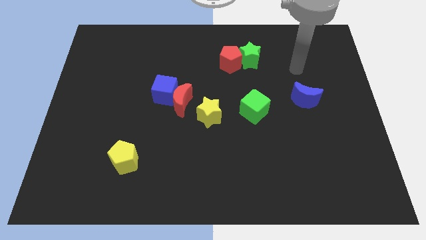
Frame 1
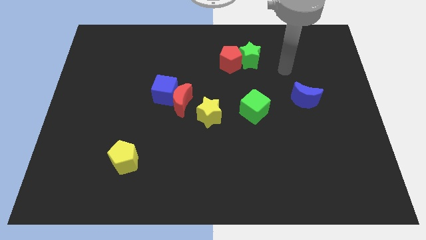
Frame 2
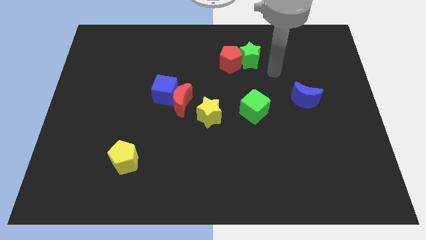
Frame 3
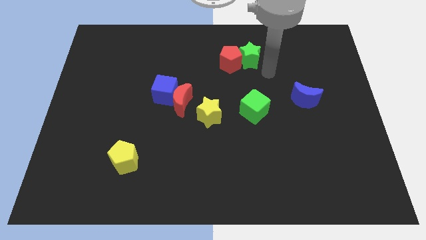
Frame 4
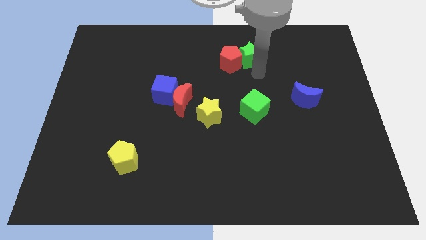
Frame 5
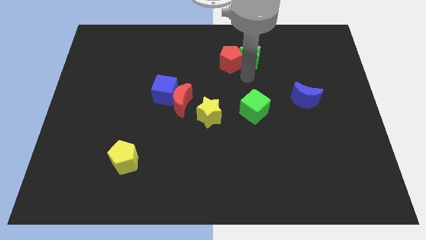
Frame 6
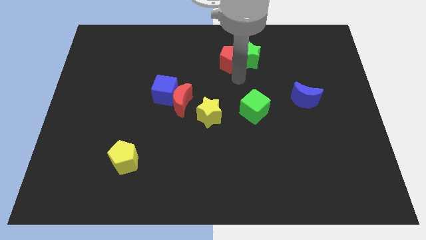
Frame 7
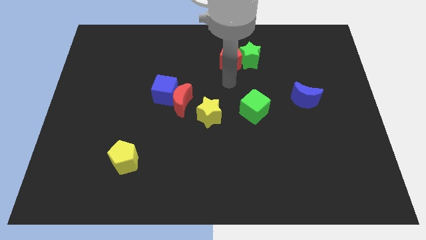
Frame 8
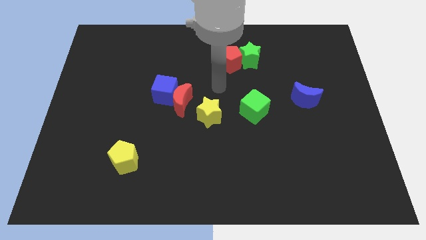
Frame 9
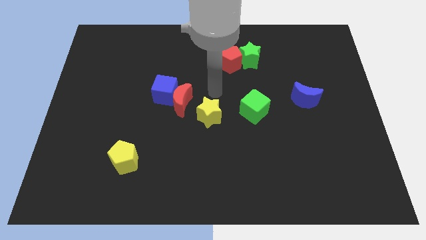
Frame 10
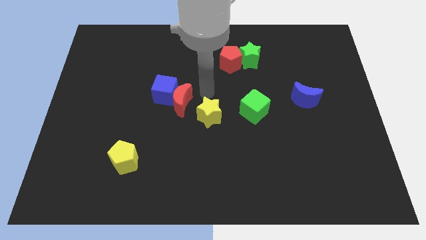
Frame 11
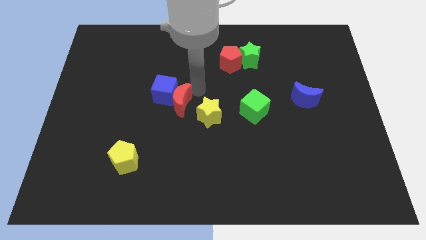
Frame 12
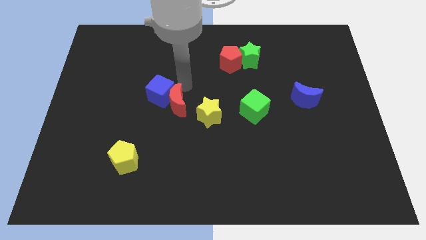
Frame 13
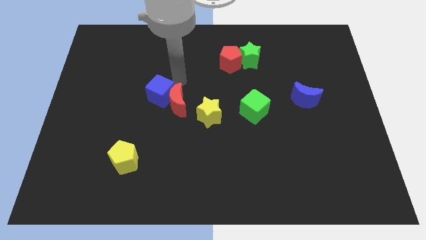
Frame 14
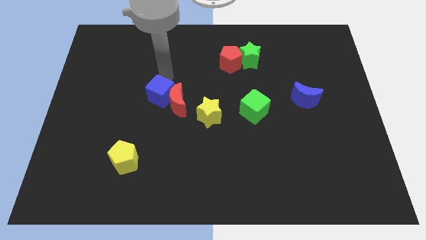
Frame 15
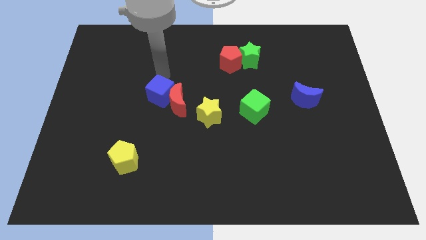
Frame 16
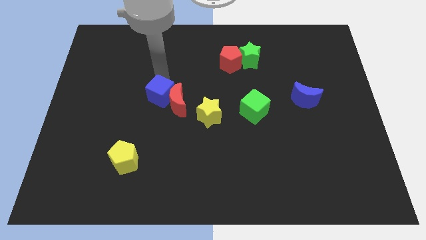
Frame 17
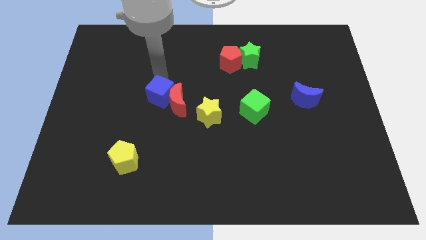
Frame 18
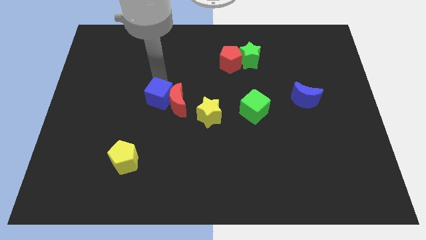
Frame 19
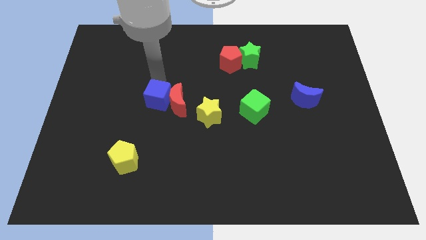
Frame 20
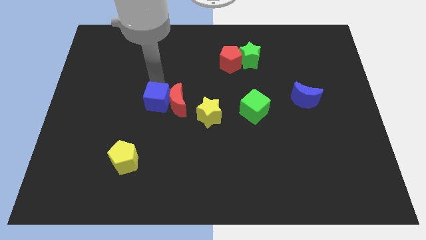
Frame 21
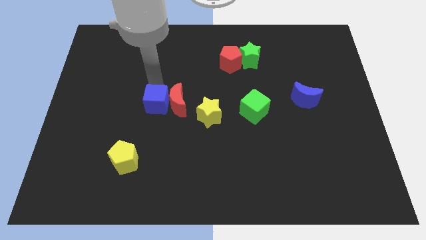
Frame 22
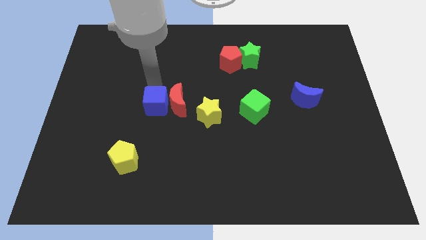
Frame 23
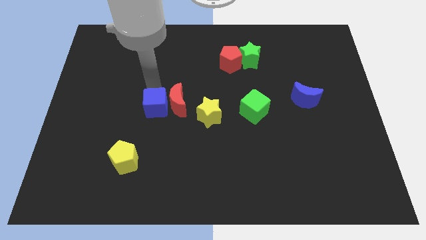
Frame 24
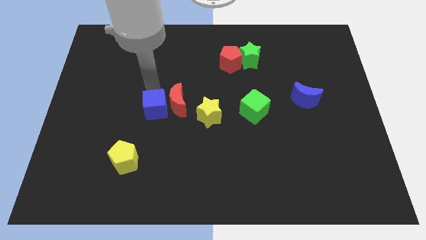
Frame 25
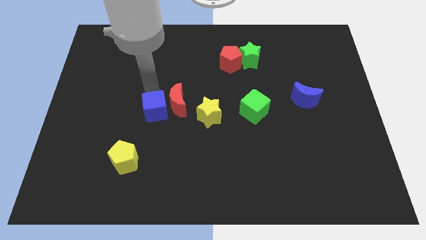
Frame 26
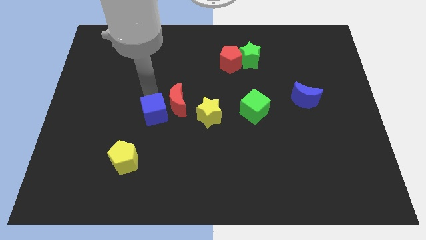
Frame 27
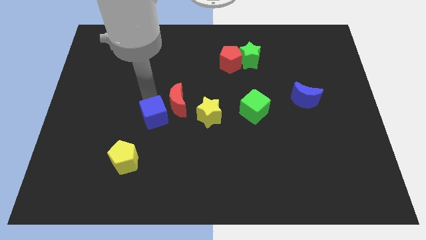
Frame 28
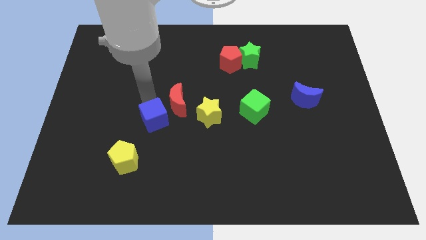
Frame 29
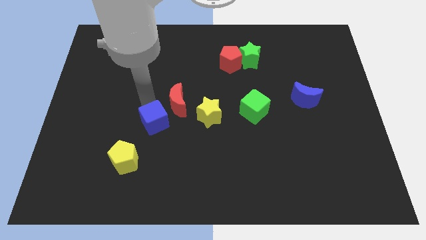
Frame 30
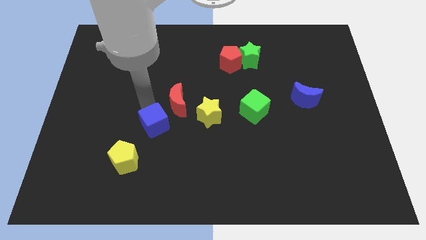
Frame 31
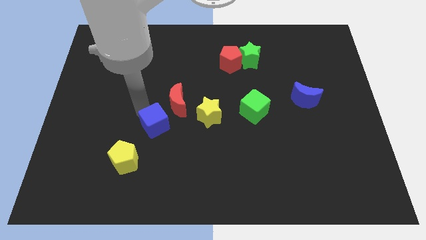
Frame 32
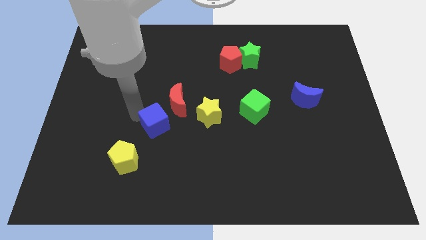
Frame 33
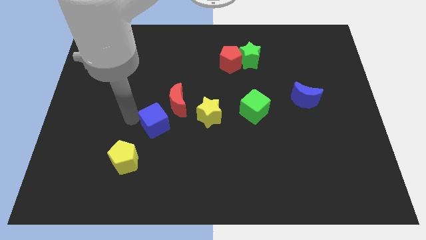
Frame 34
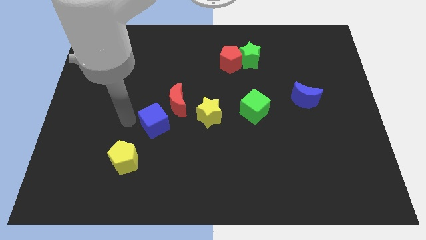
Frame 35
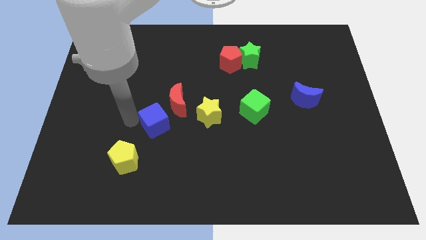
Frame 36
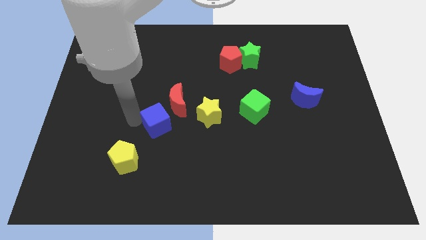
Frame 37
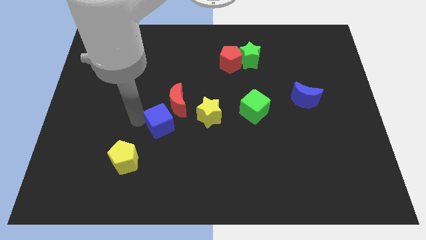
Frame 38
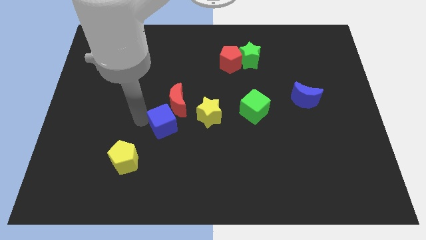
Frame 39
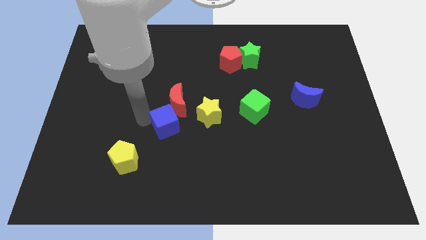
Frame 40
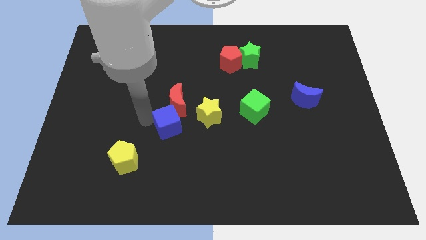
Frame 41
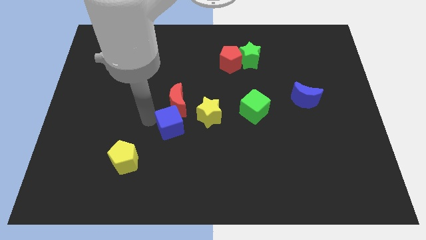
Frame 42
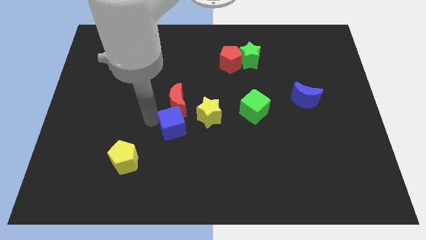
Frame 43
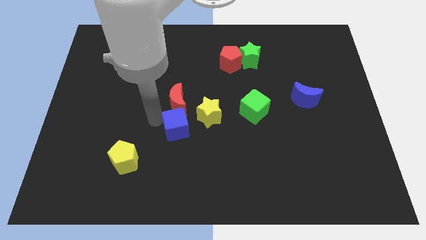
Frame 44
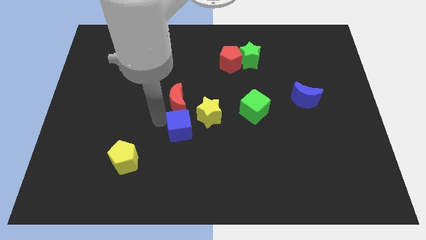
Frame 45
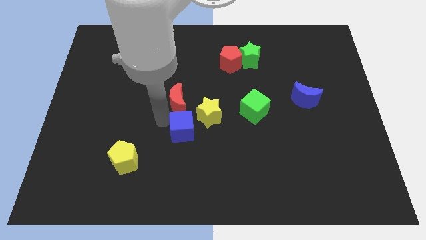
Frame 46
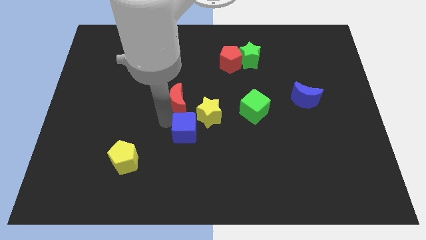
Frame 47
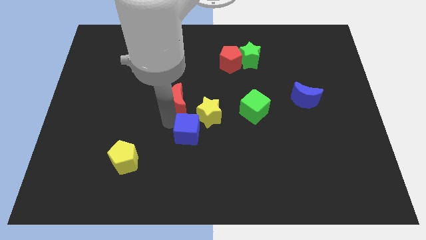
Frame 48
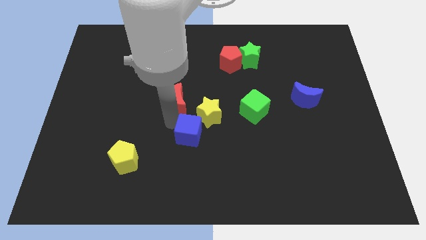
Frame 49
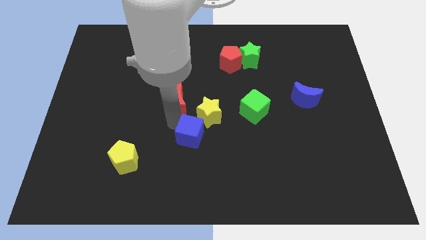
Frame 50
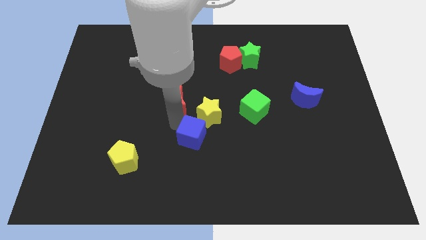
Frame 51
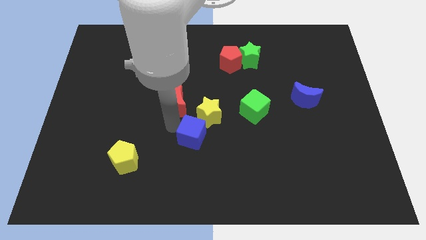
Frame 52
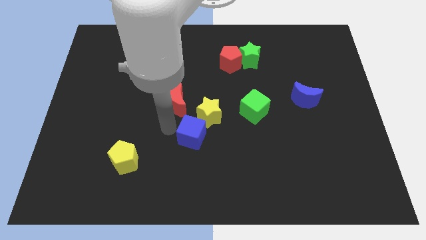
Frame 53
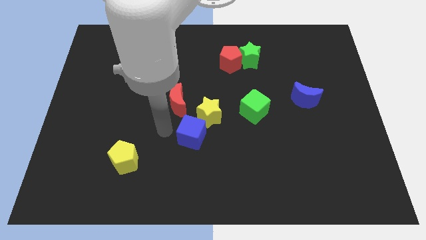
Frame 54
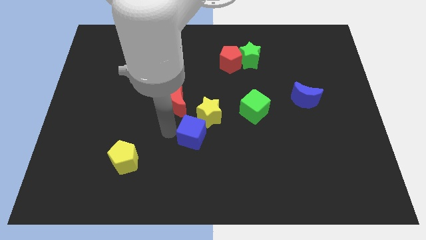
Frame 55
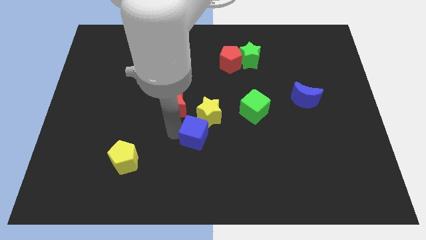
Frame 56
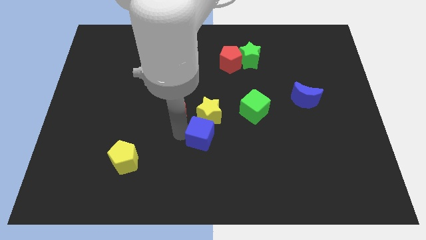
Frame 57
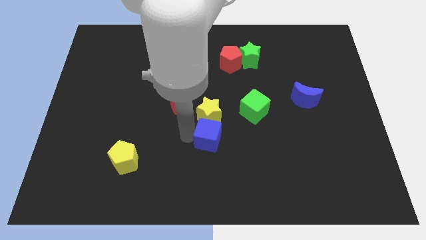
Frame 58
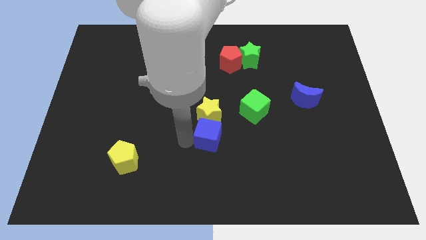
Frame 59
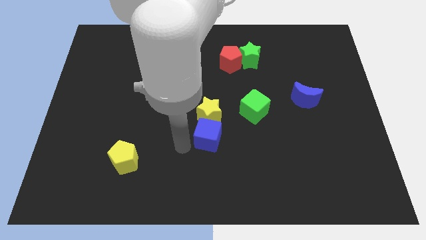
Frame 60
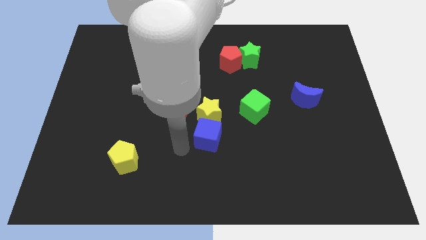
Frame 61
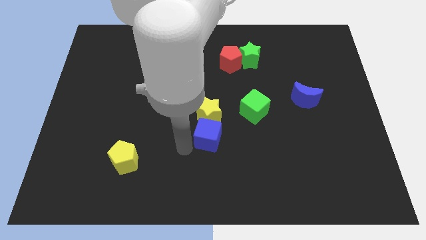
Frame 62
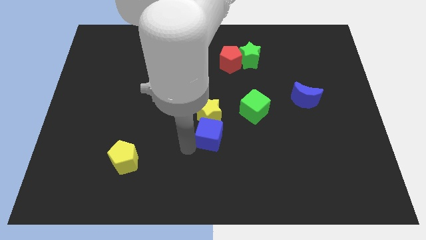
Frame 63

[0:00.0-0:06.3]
move the blue cube to the bottom left of the green cube

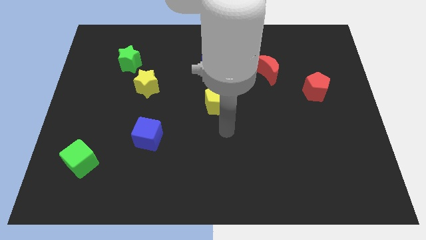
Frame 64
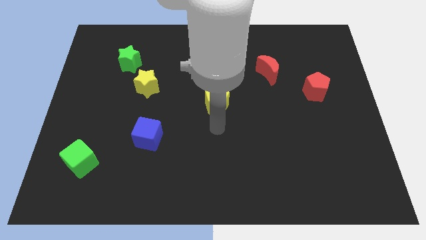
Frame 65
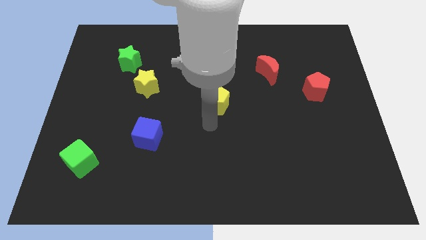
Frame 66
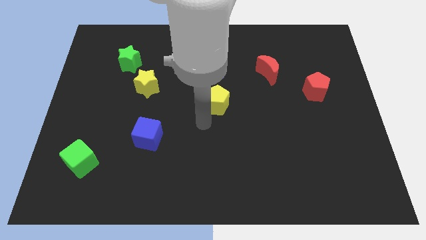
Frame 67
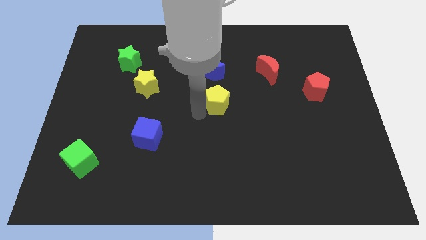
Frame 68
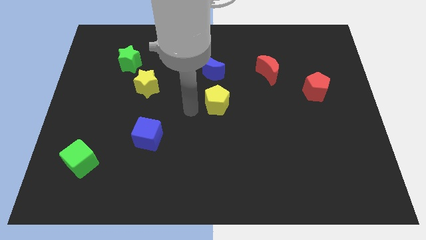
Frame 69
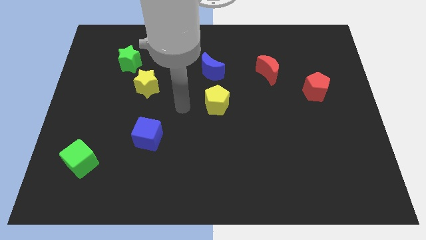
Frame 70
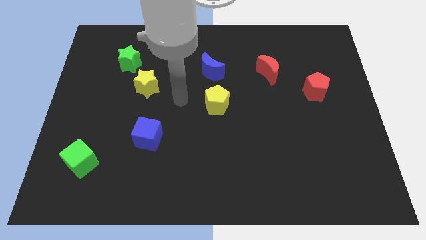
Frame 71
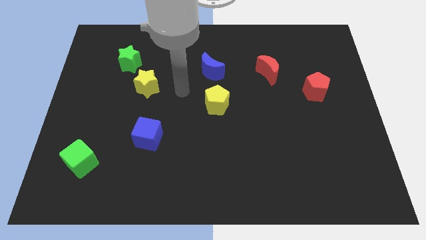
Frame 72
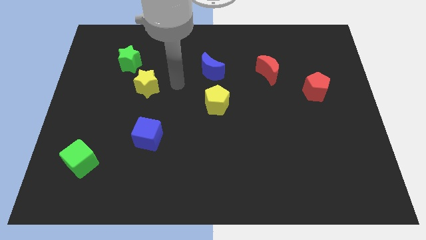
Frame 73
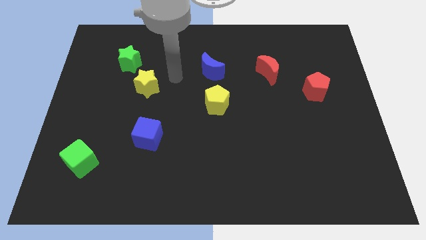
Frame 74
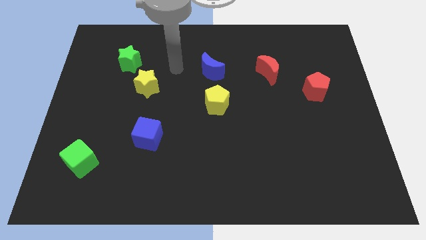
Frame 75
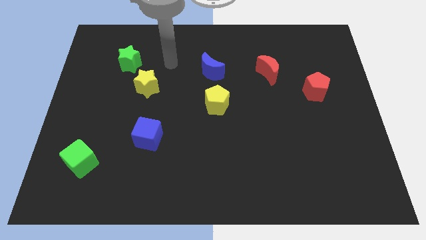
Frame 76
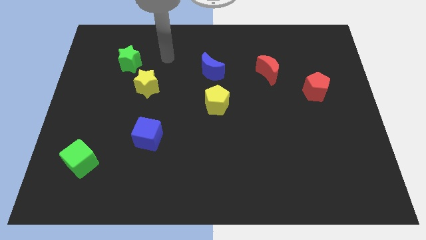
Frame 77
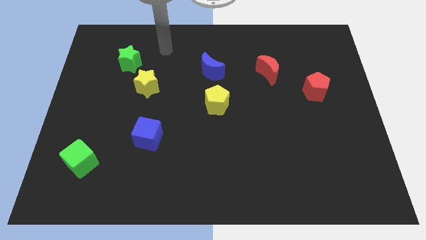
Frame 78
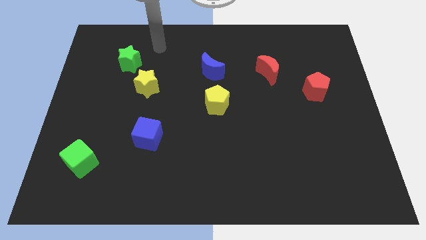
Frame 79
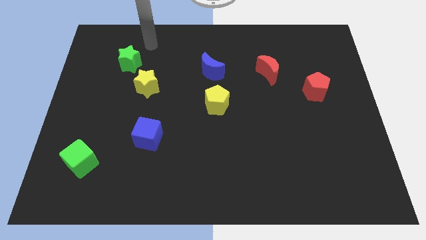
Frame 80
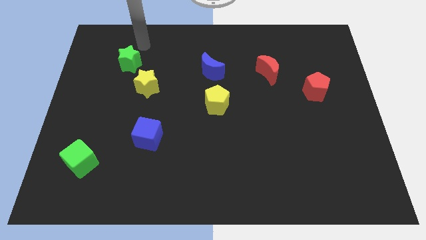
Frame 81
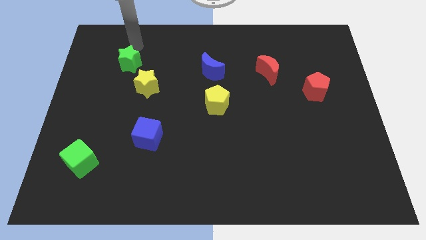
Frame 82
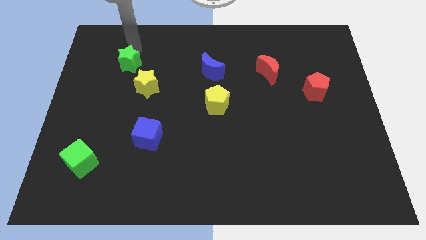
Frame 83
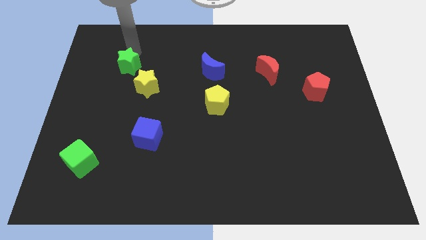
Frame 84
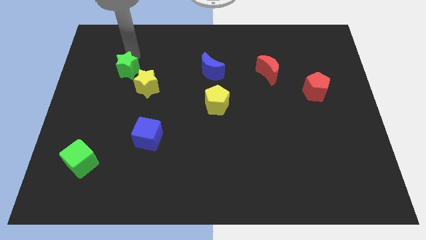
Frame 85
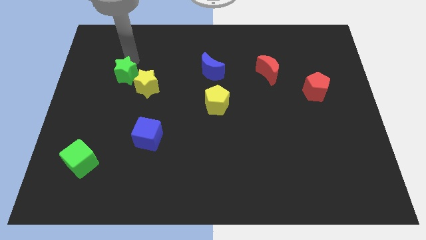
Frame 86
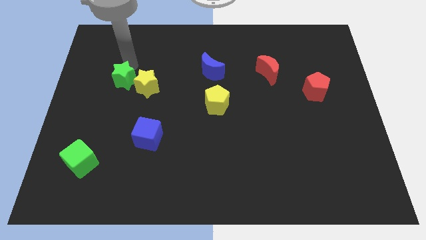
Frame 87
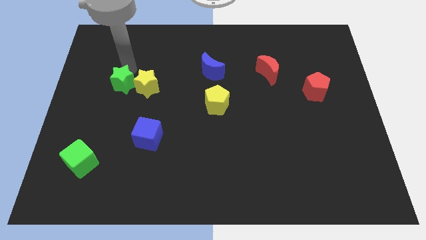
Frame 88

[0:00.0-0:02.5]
slide the green star diagonally down and to the left of the yellow star
